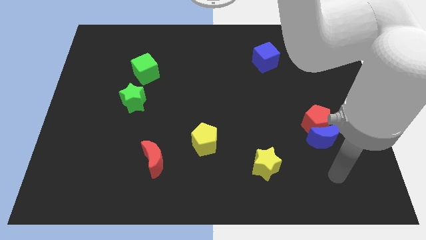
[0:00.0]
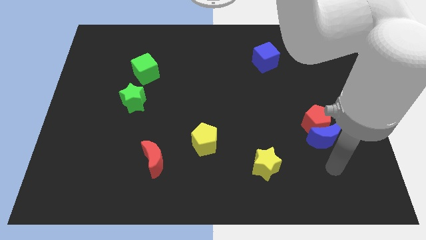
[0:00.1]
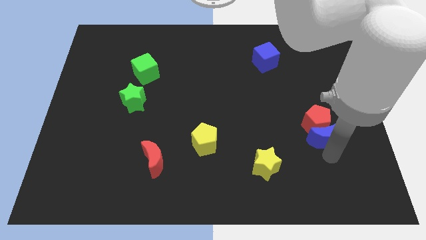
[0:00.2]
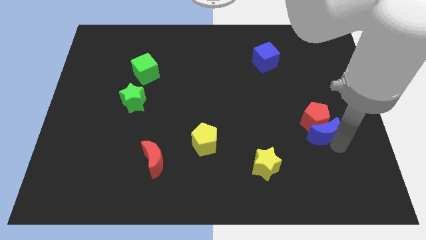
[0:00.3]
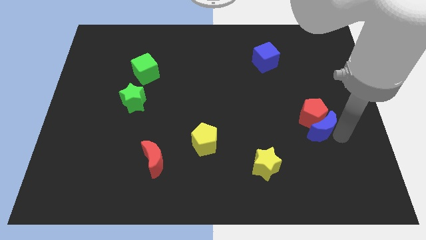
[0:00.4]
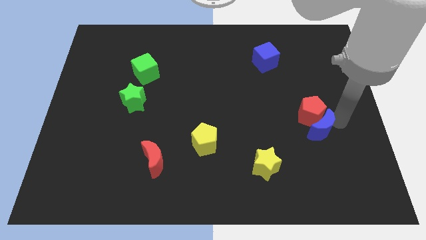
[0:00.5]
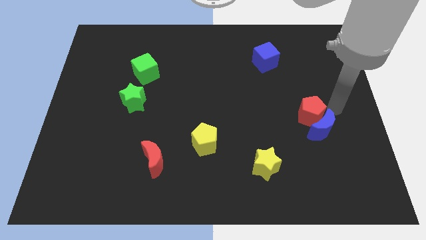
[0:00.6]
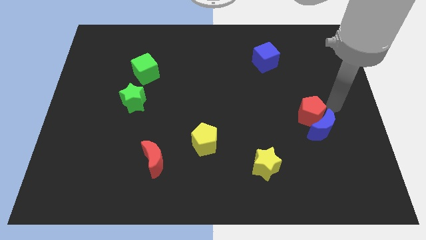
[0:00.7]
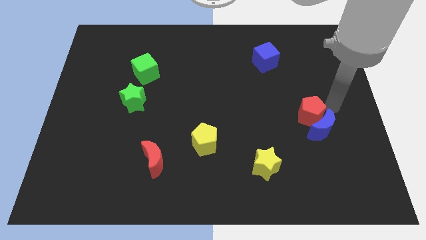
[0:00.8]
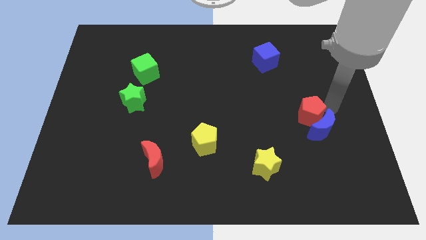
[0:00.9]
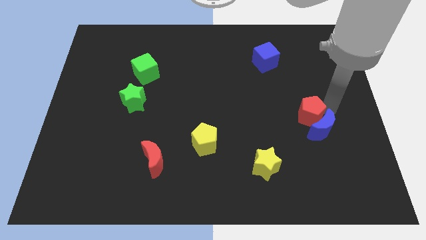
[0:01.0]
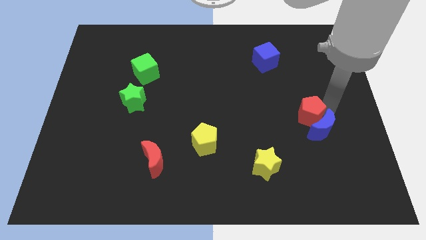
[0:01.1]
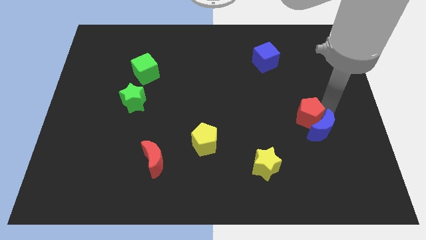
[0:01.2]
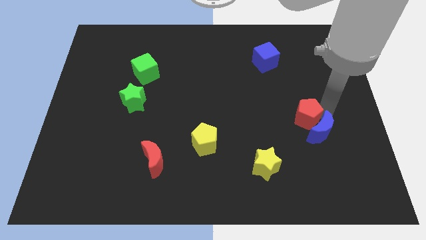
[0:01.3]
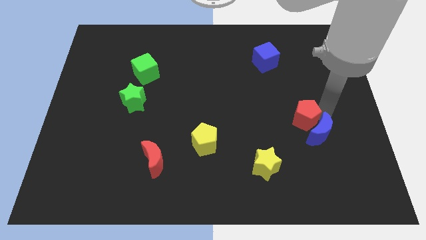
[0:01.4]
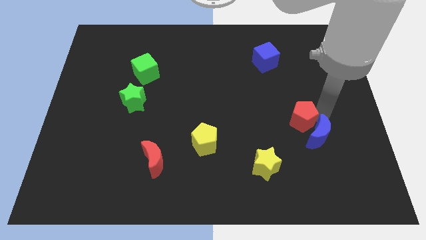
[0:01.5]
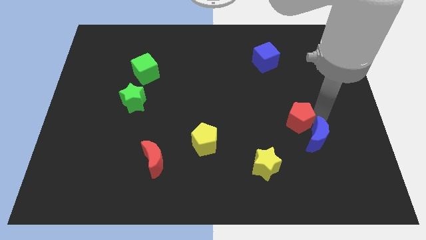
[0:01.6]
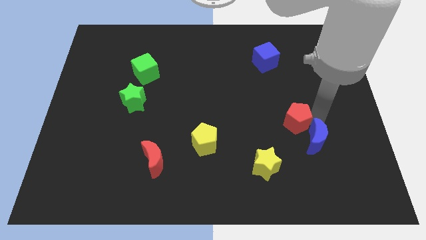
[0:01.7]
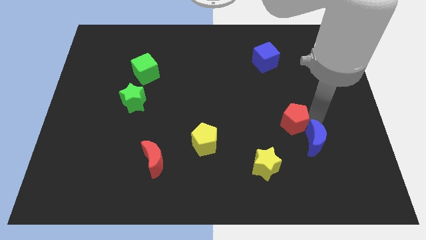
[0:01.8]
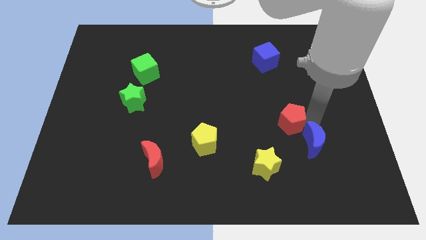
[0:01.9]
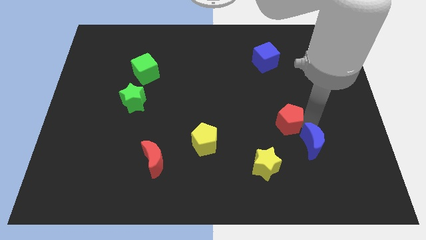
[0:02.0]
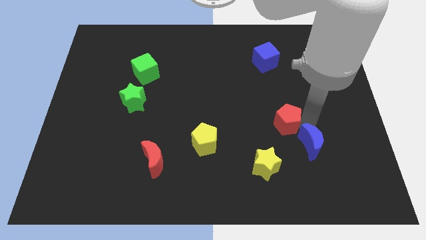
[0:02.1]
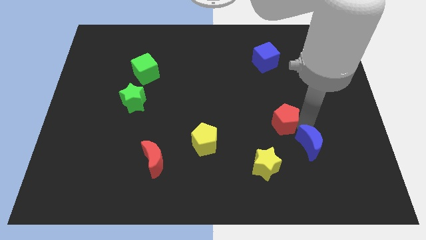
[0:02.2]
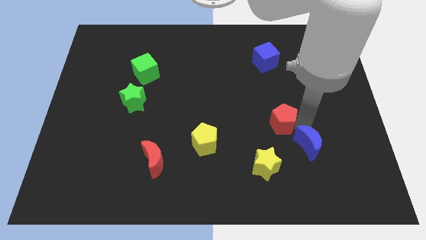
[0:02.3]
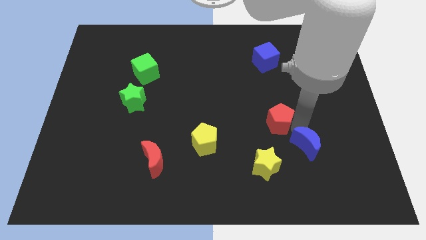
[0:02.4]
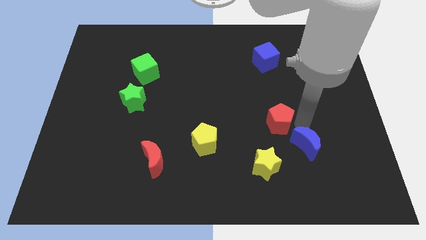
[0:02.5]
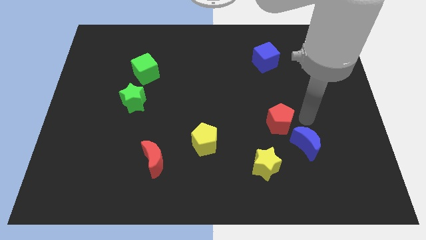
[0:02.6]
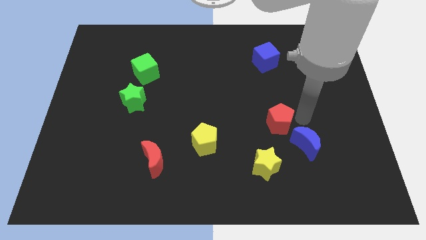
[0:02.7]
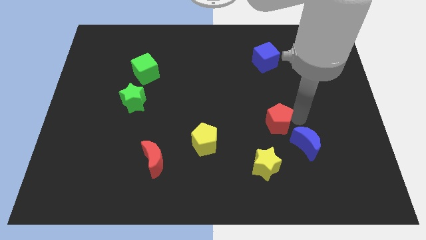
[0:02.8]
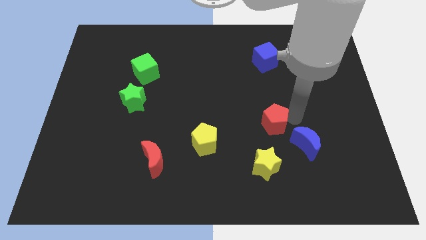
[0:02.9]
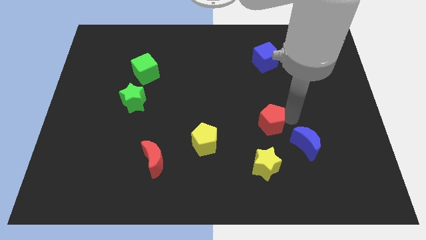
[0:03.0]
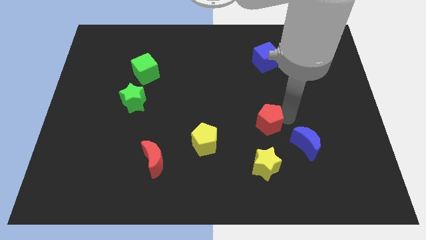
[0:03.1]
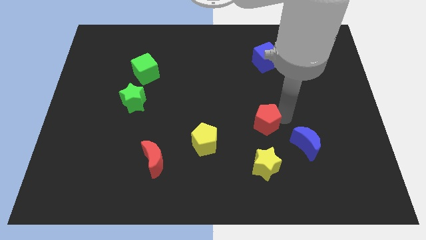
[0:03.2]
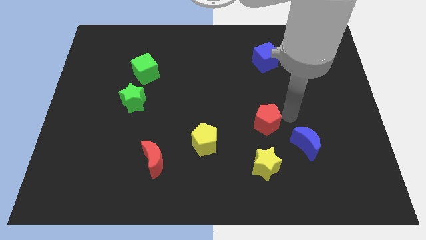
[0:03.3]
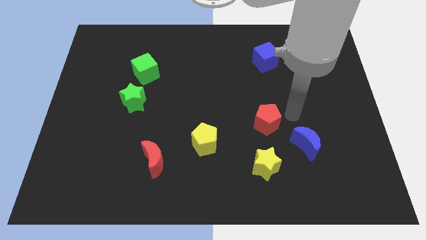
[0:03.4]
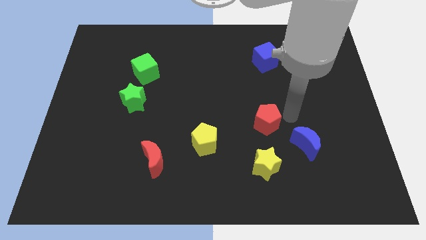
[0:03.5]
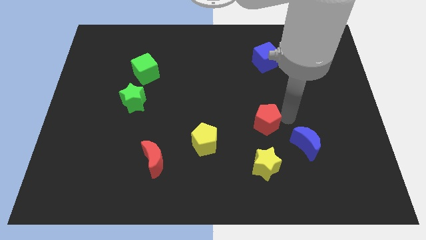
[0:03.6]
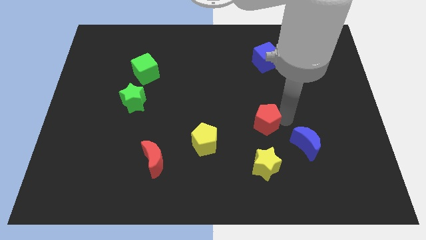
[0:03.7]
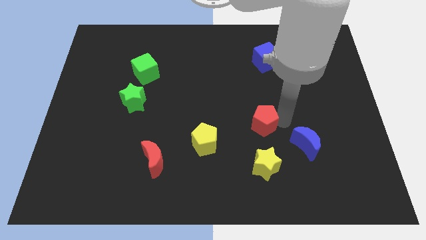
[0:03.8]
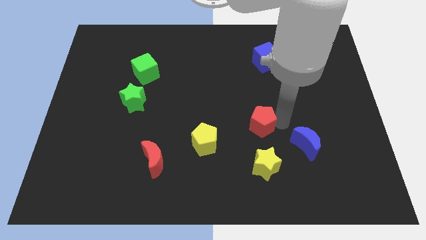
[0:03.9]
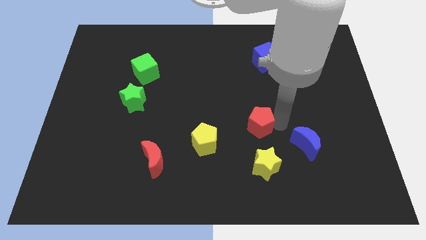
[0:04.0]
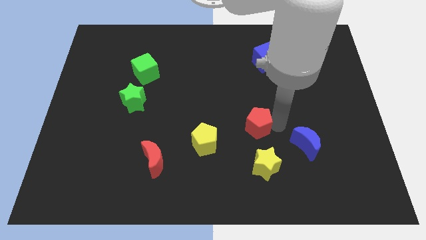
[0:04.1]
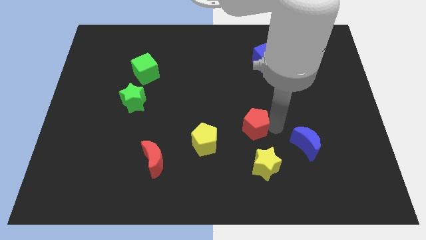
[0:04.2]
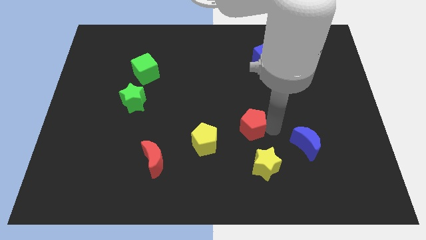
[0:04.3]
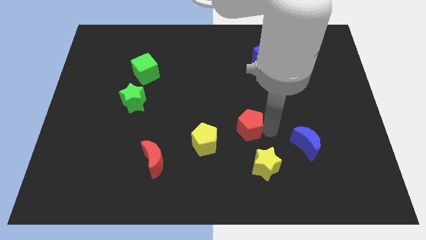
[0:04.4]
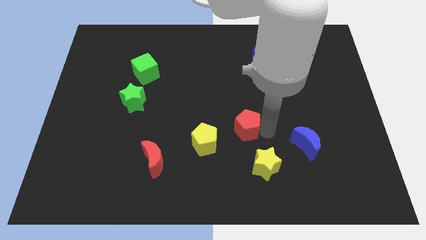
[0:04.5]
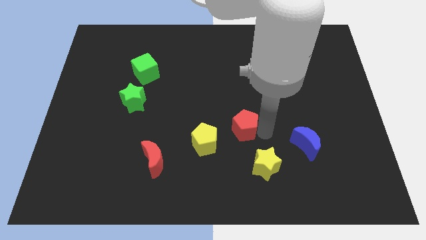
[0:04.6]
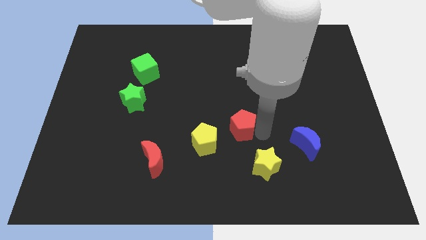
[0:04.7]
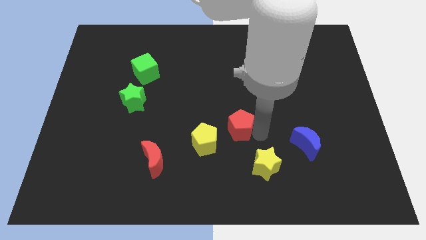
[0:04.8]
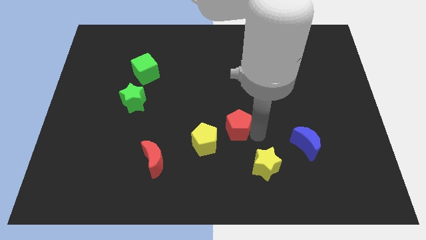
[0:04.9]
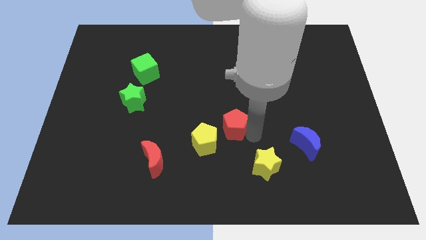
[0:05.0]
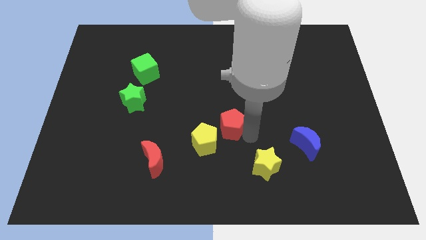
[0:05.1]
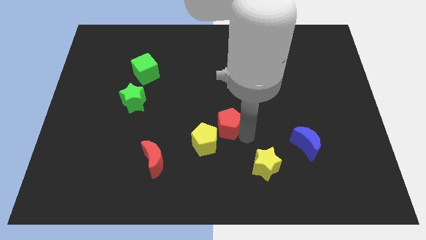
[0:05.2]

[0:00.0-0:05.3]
slide the red pentagon left

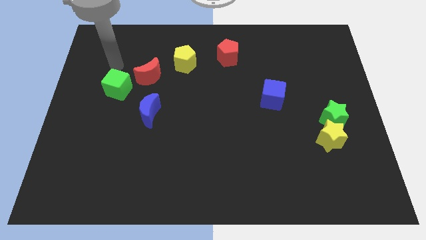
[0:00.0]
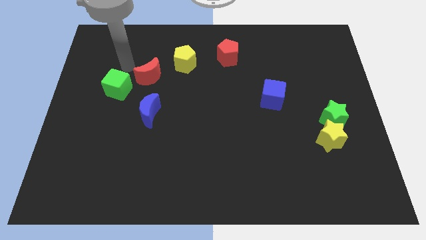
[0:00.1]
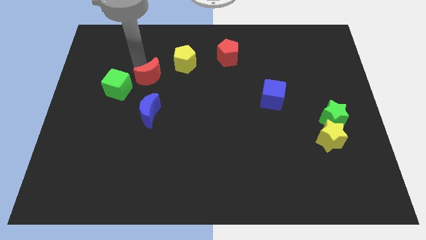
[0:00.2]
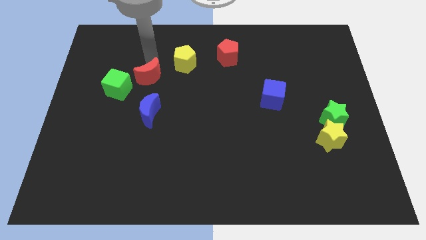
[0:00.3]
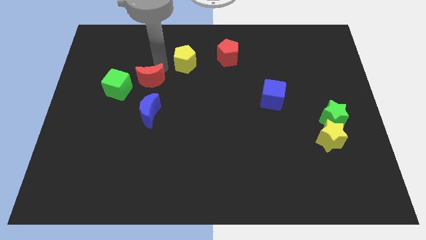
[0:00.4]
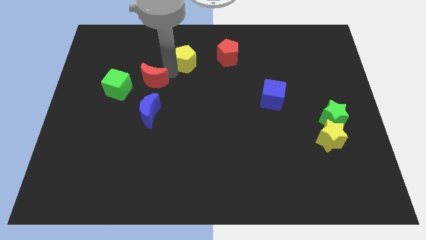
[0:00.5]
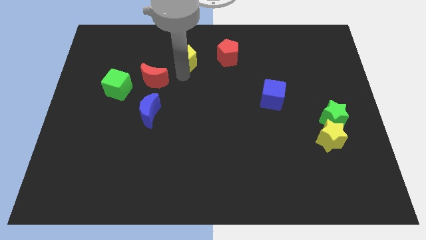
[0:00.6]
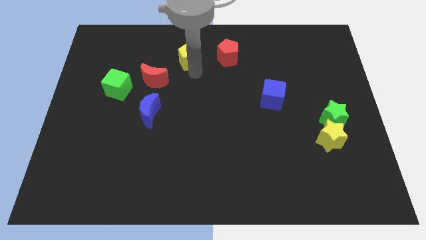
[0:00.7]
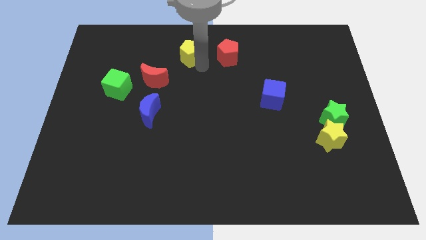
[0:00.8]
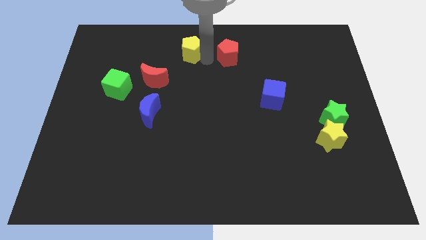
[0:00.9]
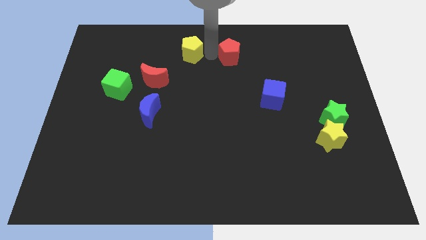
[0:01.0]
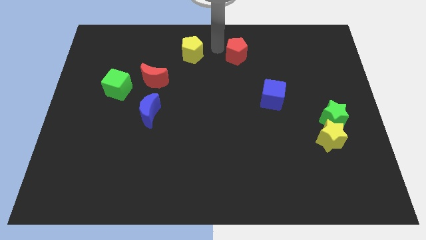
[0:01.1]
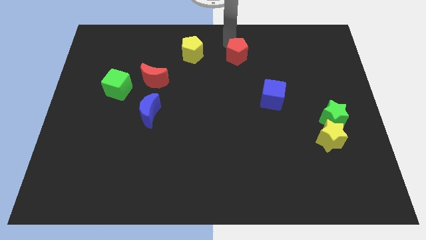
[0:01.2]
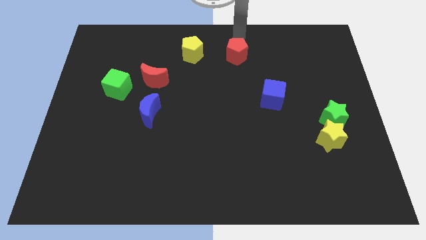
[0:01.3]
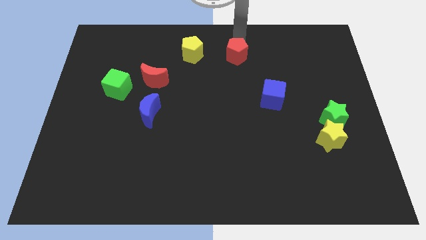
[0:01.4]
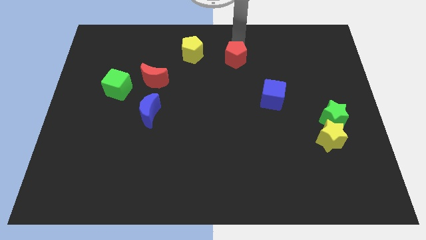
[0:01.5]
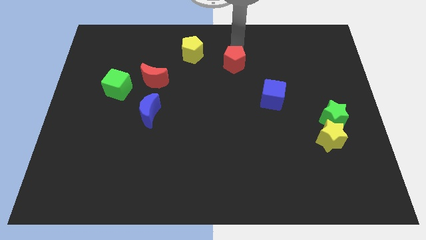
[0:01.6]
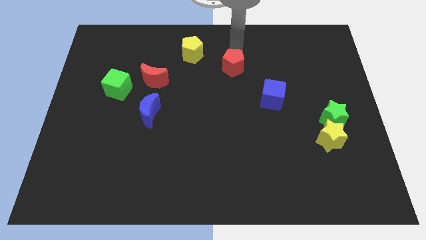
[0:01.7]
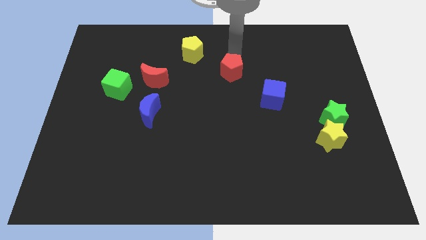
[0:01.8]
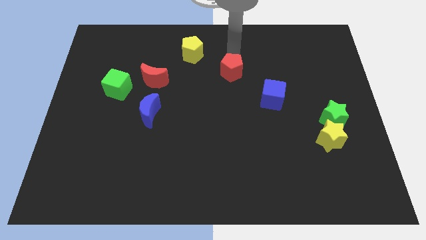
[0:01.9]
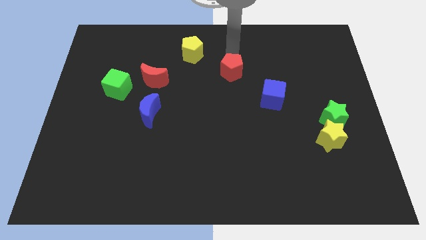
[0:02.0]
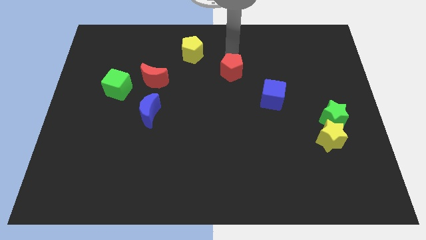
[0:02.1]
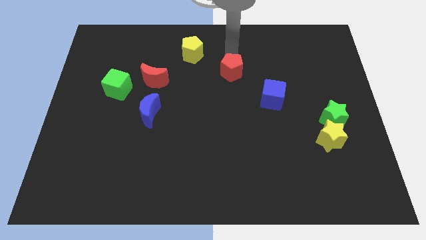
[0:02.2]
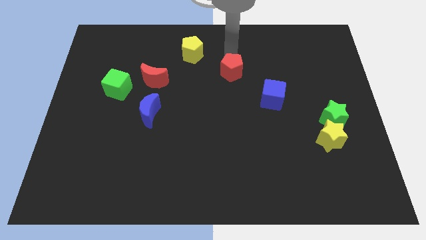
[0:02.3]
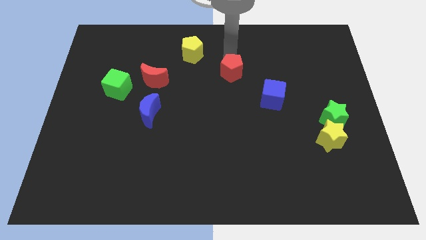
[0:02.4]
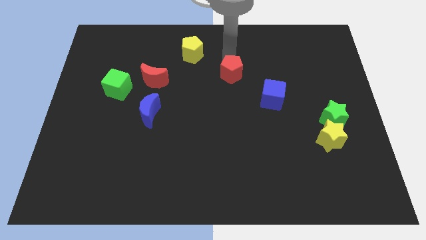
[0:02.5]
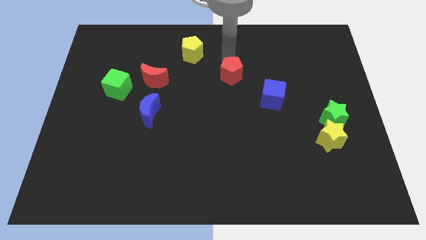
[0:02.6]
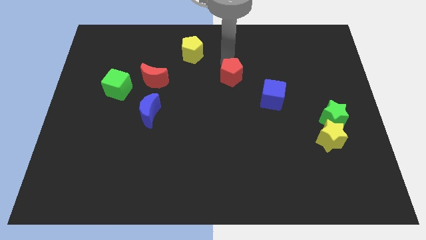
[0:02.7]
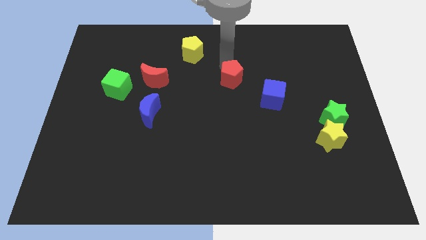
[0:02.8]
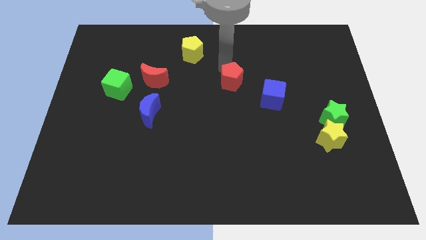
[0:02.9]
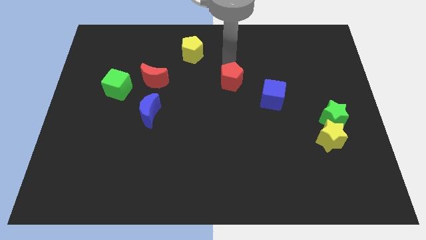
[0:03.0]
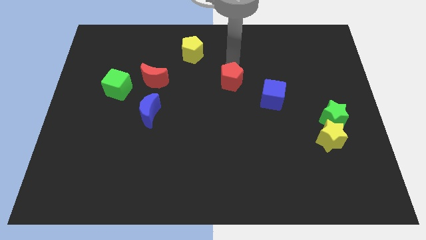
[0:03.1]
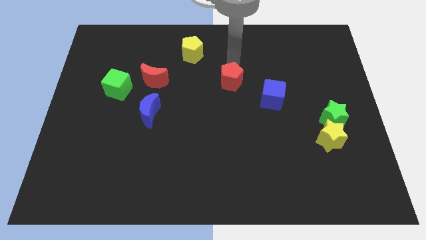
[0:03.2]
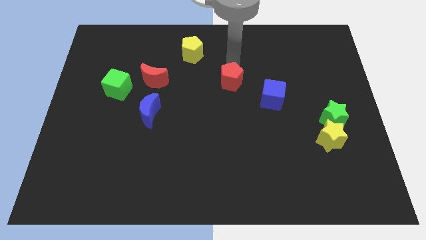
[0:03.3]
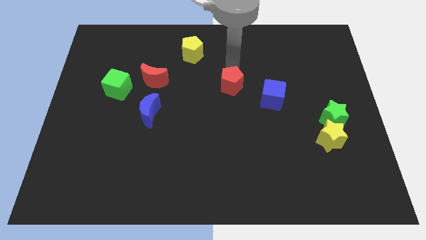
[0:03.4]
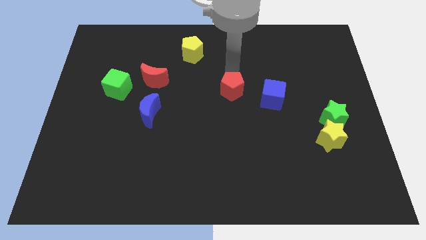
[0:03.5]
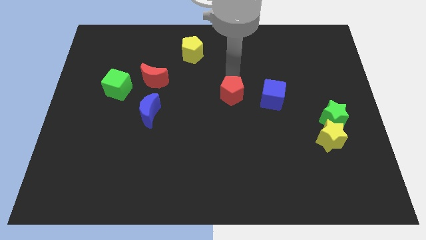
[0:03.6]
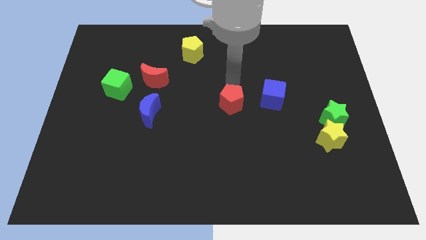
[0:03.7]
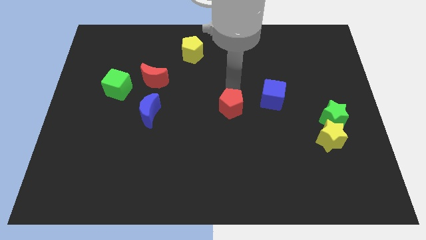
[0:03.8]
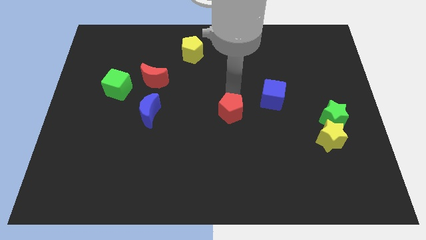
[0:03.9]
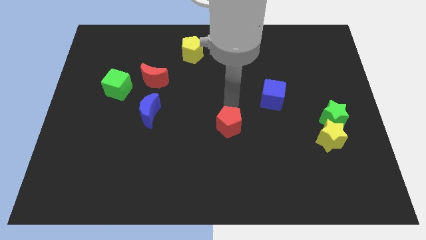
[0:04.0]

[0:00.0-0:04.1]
move the red pentagon downwards
